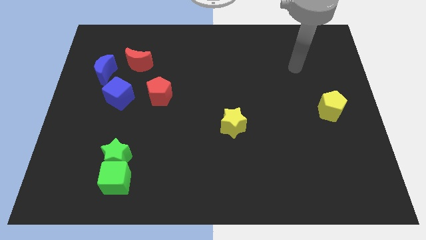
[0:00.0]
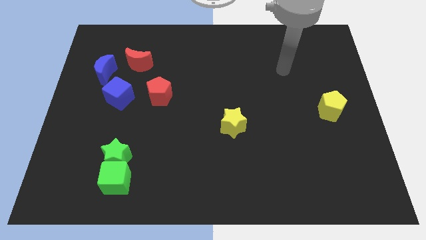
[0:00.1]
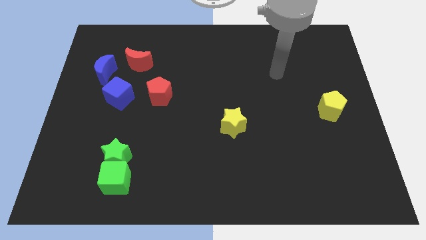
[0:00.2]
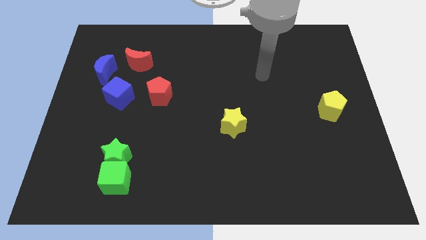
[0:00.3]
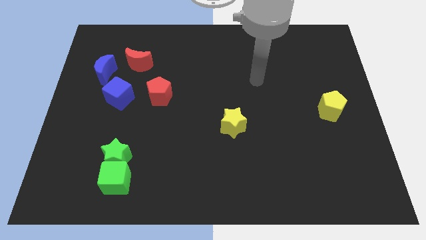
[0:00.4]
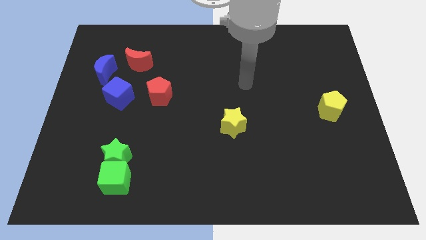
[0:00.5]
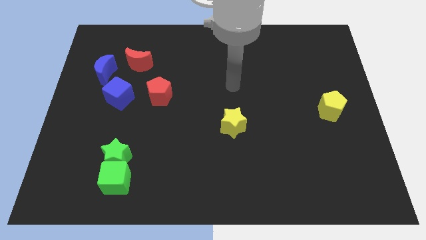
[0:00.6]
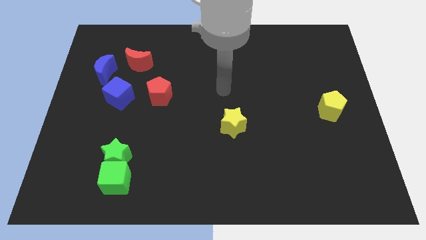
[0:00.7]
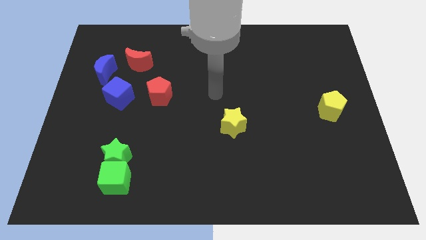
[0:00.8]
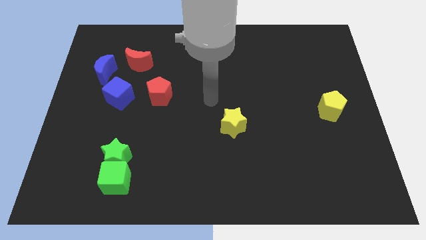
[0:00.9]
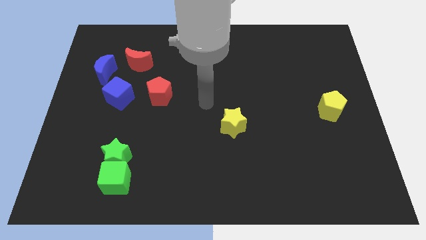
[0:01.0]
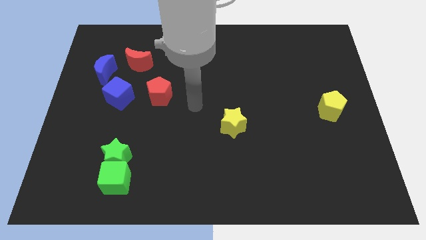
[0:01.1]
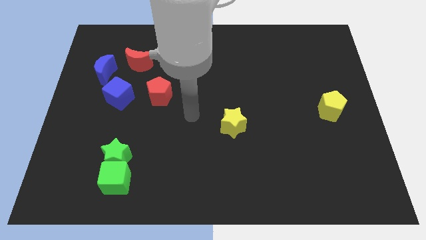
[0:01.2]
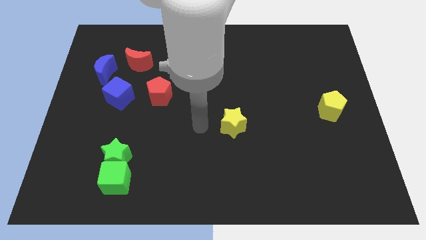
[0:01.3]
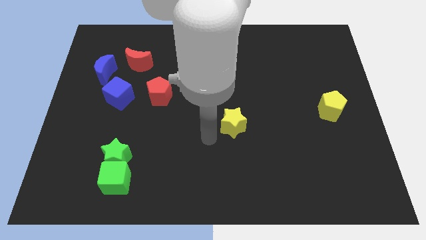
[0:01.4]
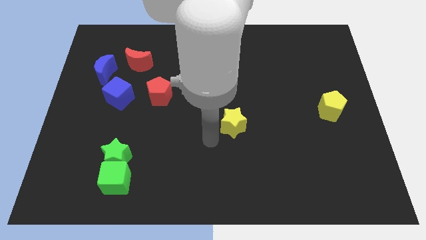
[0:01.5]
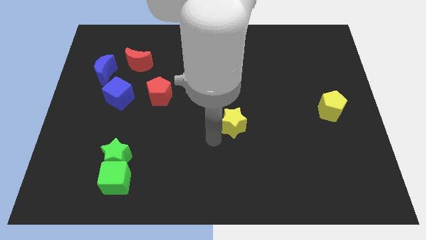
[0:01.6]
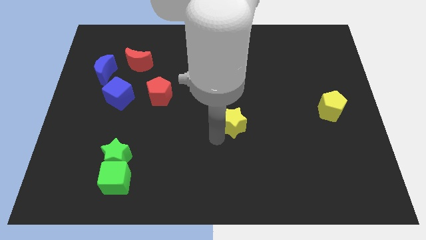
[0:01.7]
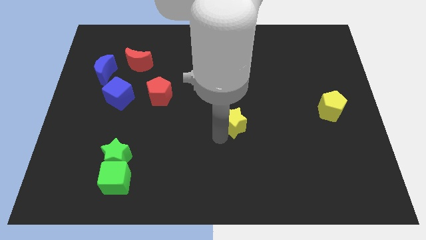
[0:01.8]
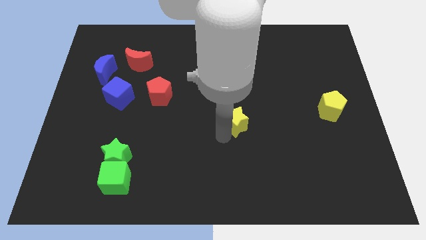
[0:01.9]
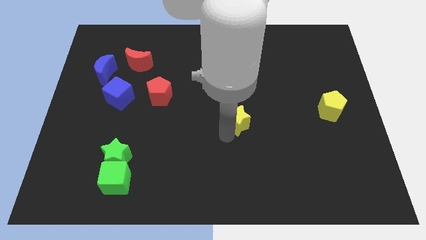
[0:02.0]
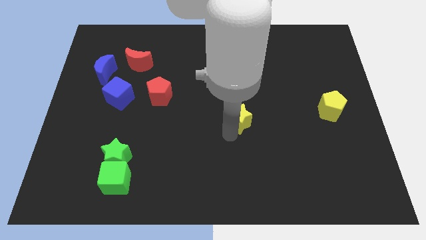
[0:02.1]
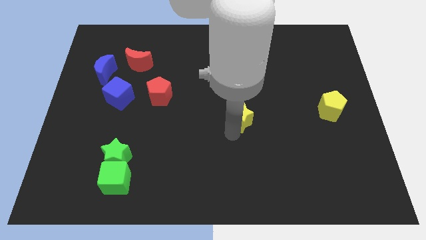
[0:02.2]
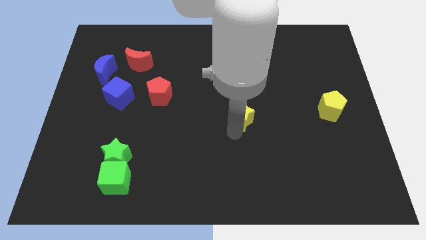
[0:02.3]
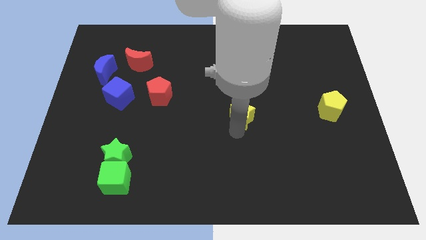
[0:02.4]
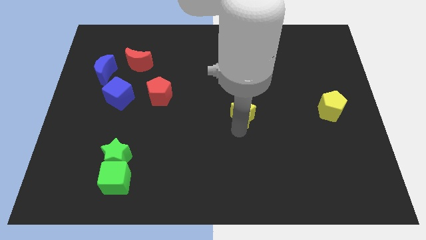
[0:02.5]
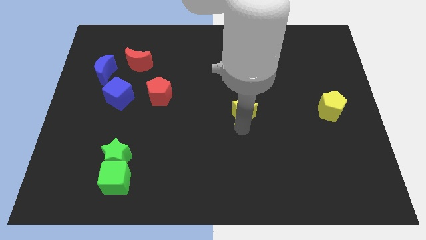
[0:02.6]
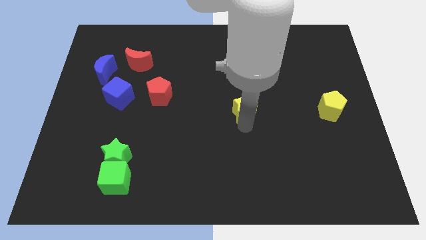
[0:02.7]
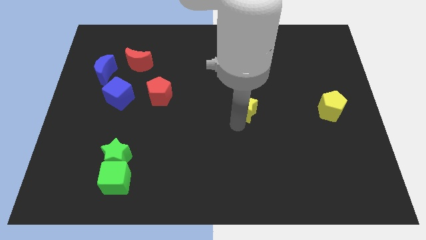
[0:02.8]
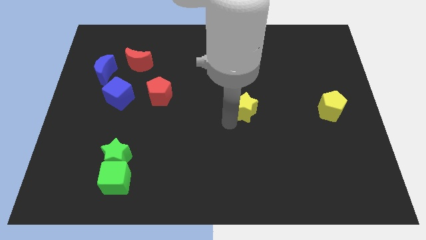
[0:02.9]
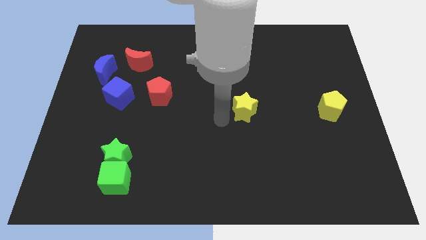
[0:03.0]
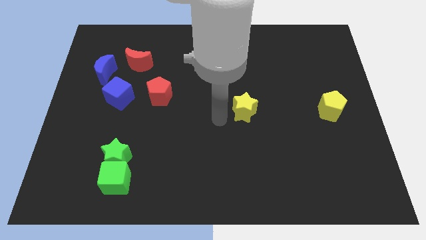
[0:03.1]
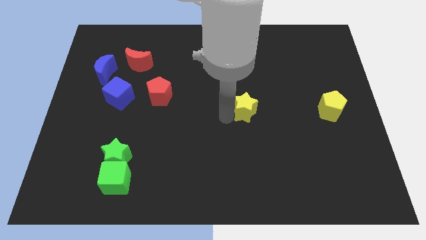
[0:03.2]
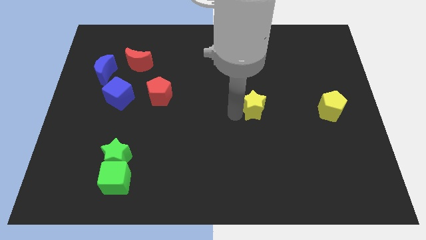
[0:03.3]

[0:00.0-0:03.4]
slide the yellow star diagonally up and right slightly

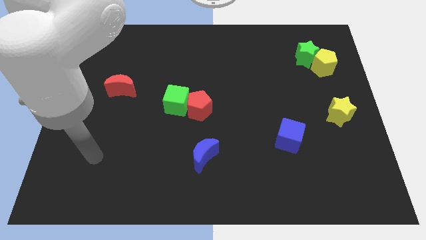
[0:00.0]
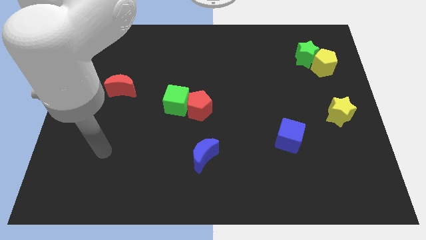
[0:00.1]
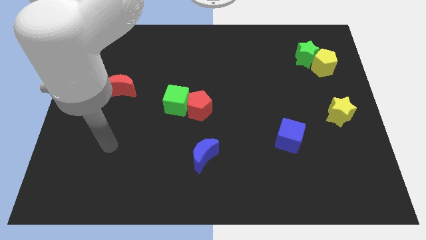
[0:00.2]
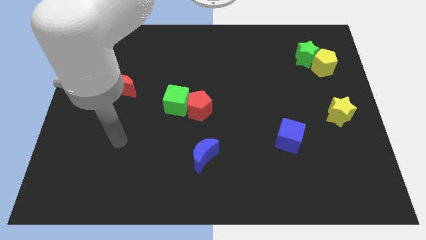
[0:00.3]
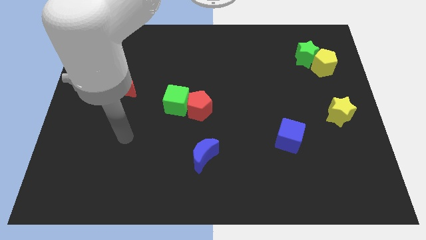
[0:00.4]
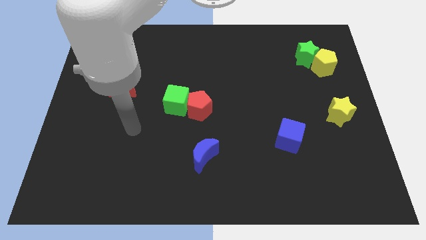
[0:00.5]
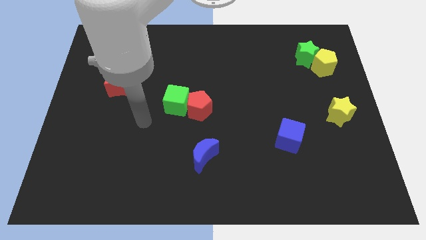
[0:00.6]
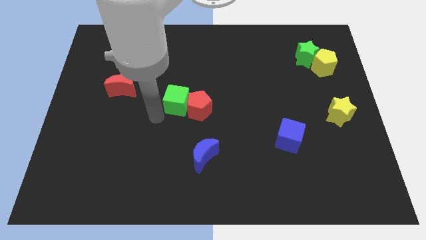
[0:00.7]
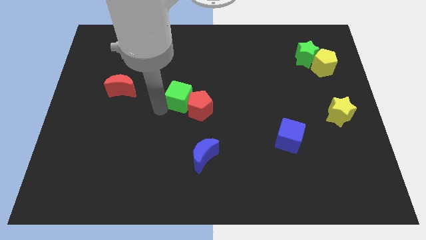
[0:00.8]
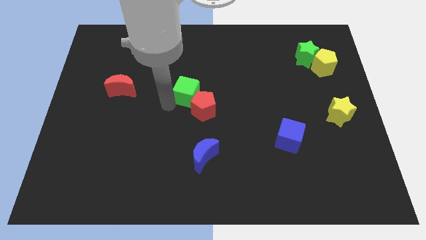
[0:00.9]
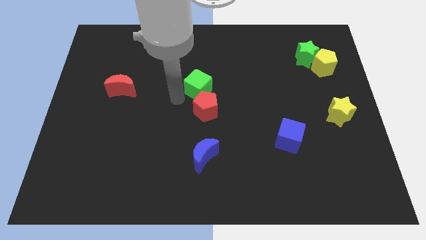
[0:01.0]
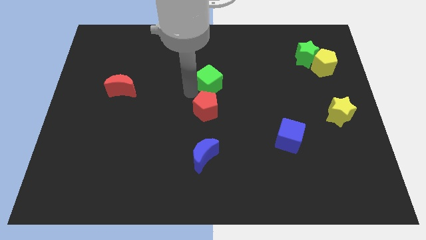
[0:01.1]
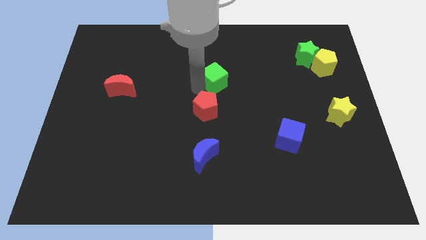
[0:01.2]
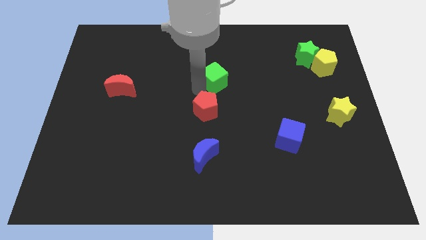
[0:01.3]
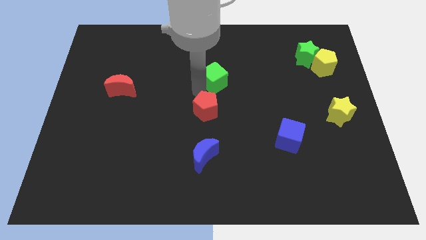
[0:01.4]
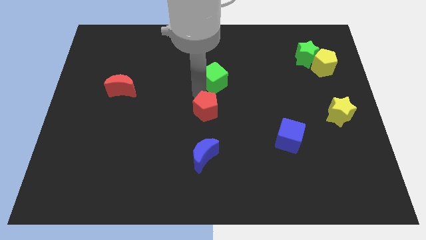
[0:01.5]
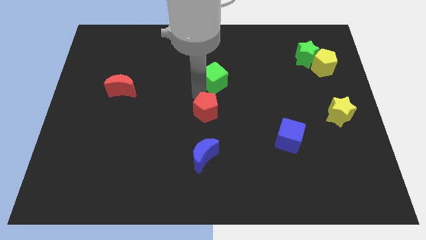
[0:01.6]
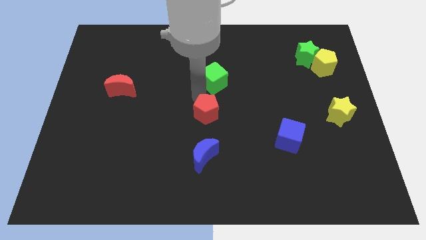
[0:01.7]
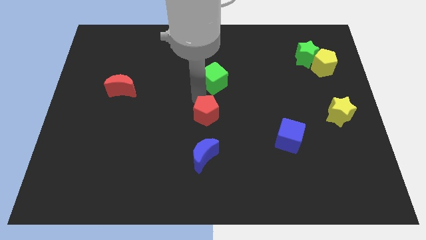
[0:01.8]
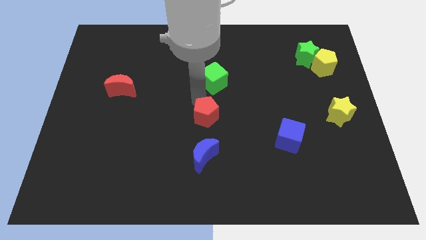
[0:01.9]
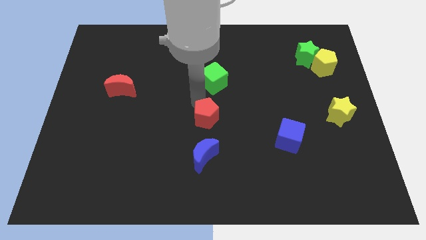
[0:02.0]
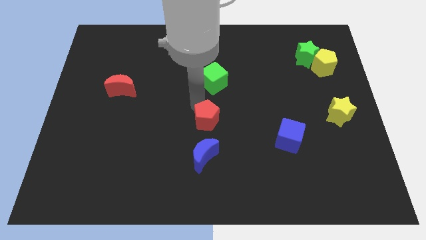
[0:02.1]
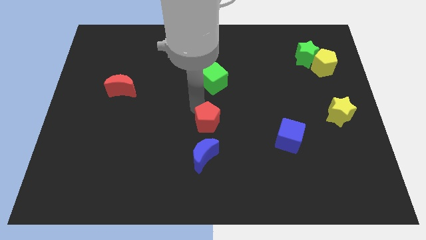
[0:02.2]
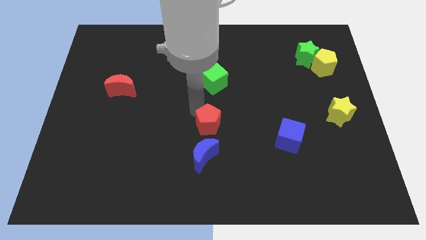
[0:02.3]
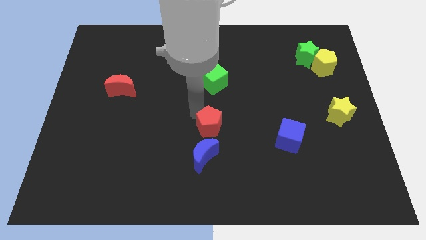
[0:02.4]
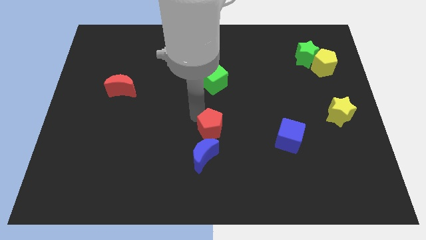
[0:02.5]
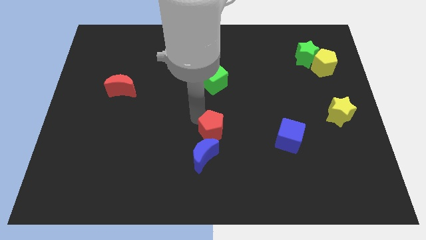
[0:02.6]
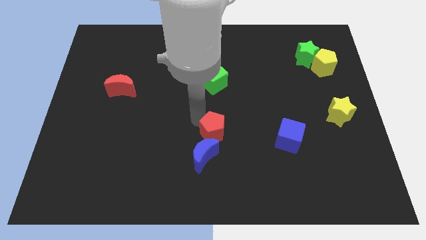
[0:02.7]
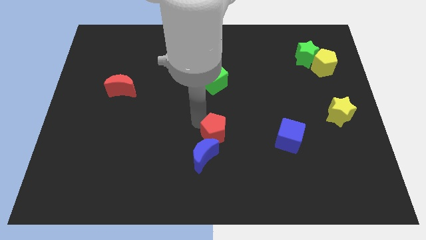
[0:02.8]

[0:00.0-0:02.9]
move the red pentagon downwards and right diagonally somewhat

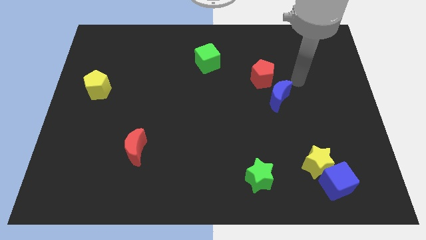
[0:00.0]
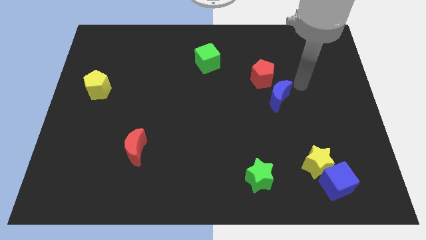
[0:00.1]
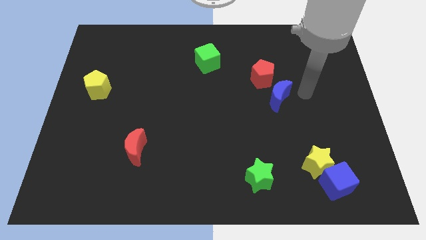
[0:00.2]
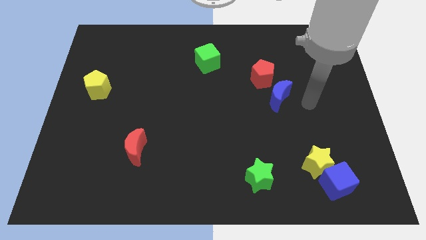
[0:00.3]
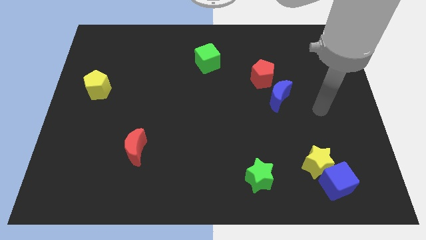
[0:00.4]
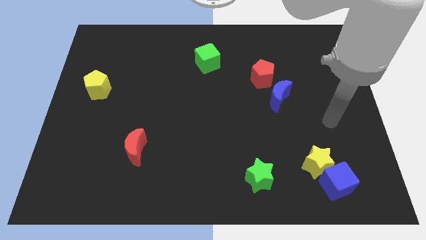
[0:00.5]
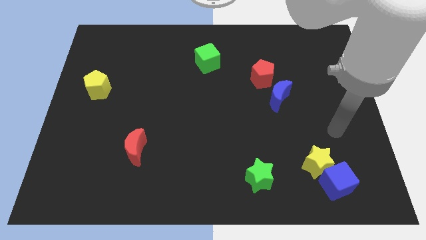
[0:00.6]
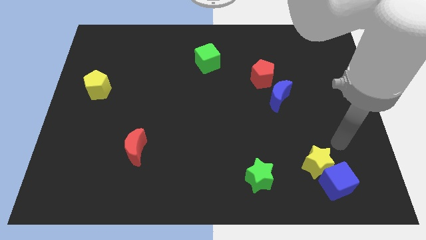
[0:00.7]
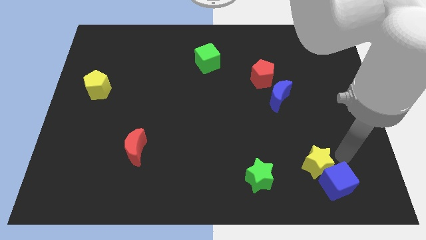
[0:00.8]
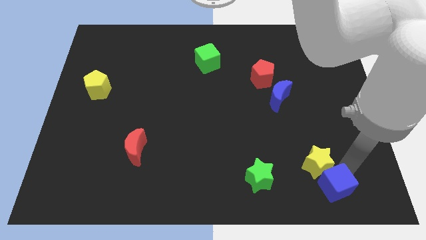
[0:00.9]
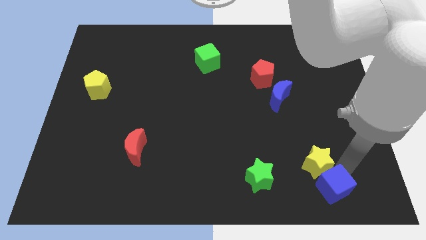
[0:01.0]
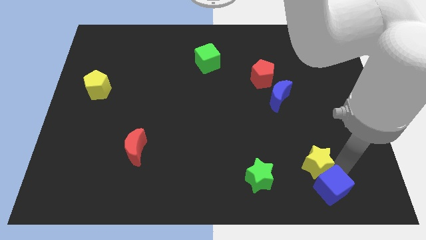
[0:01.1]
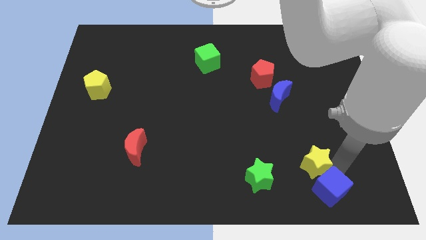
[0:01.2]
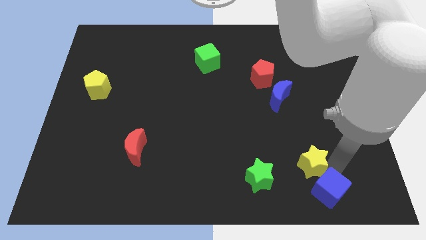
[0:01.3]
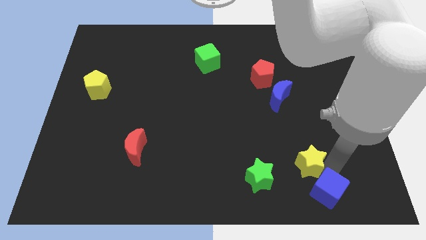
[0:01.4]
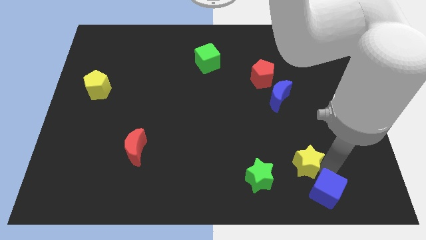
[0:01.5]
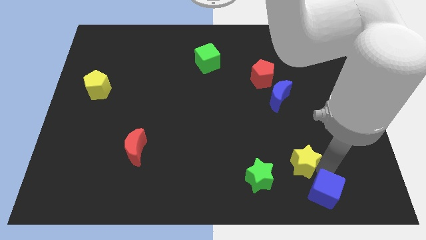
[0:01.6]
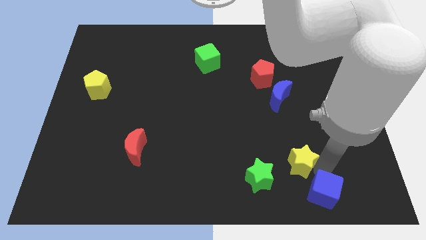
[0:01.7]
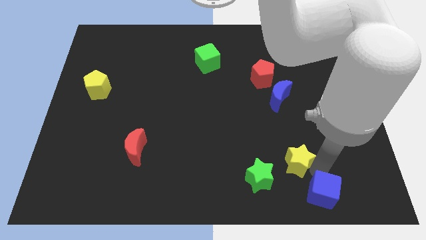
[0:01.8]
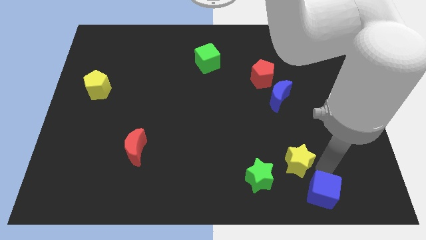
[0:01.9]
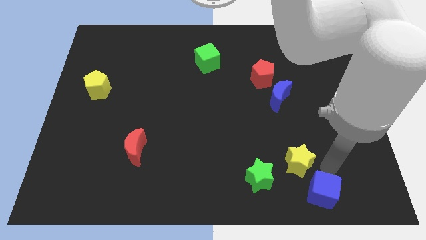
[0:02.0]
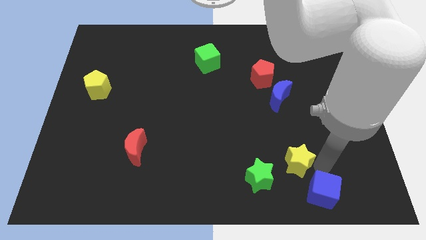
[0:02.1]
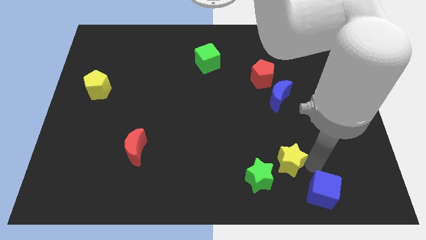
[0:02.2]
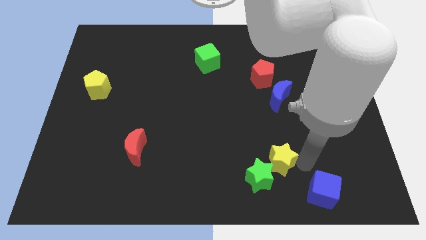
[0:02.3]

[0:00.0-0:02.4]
slightly push the yellow star to the left
